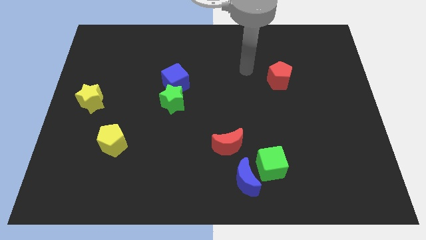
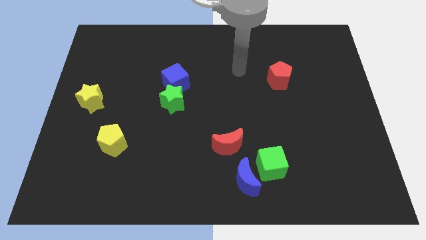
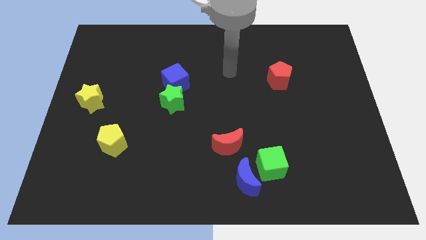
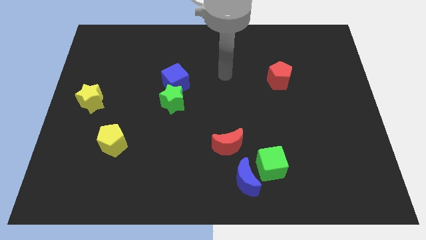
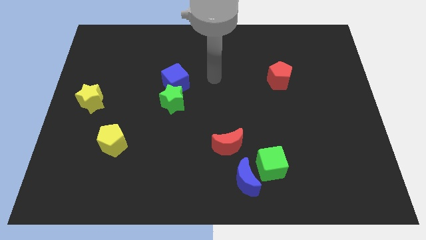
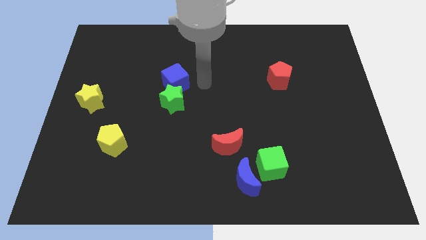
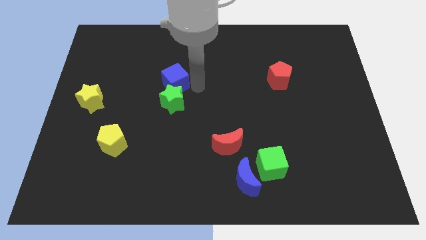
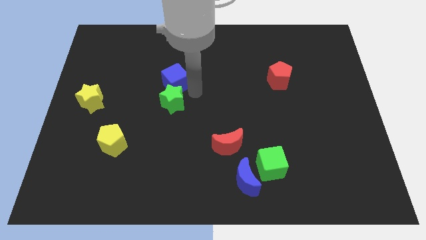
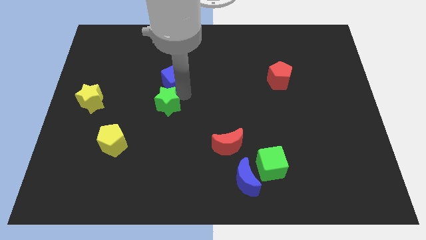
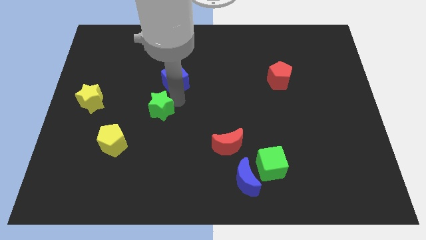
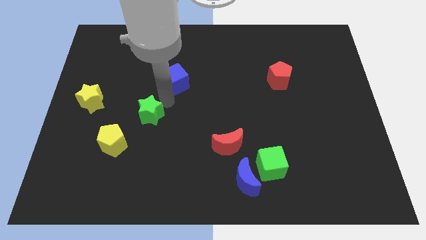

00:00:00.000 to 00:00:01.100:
pull the blue cube apart from the green star

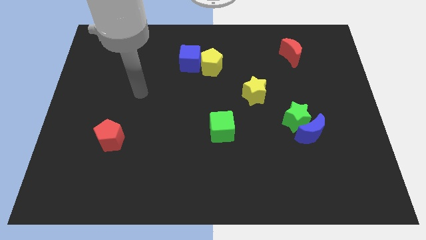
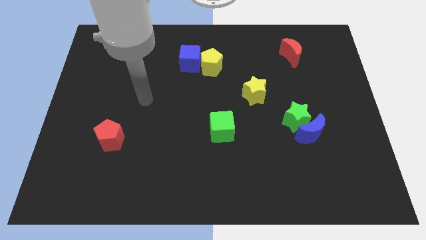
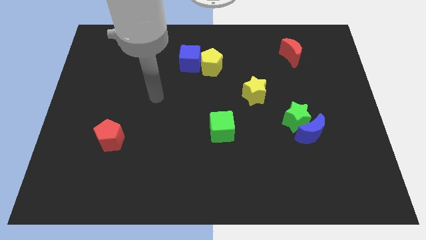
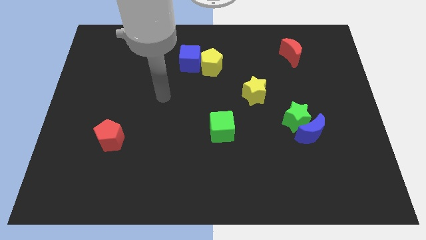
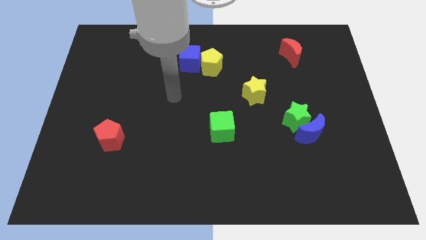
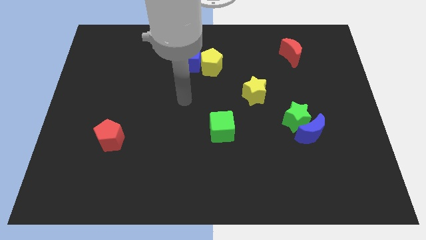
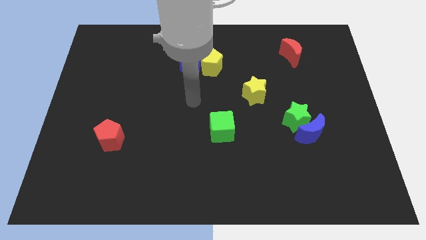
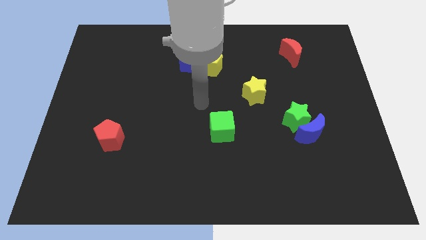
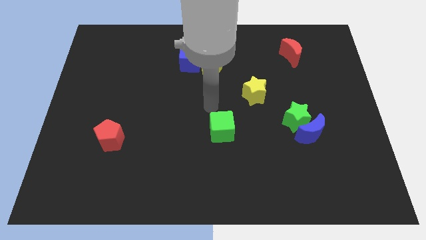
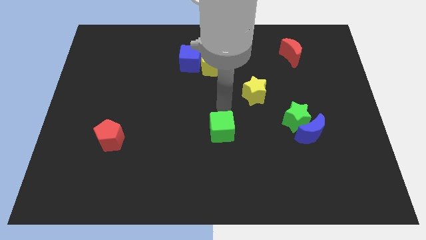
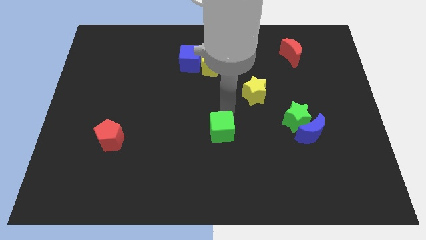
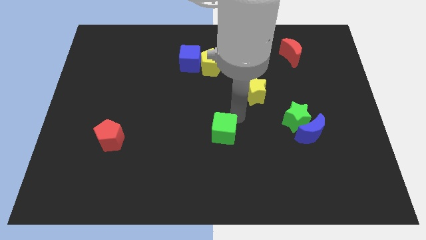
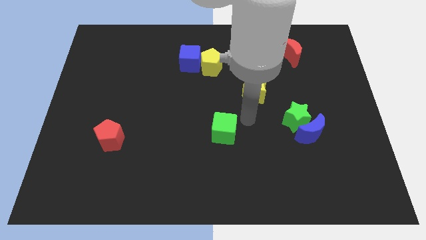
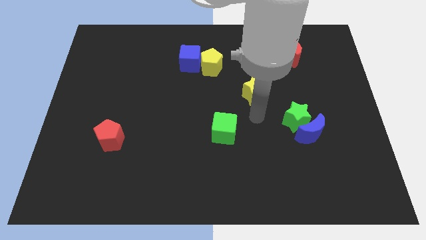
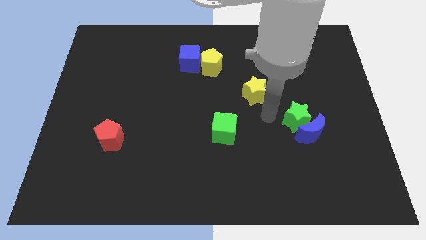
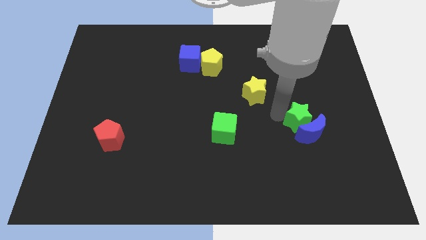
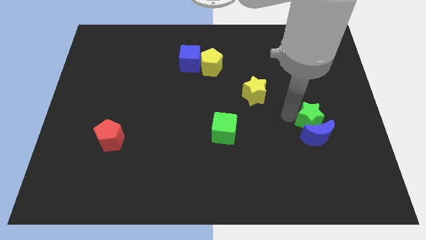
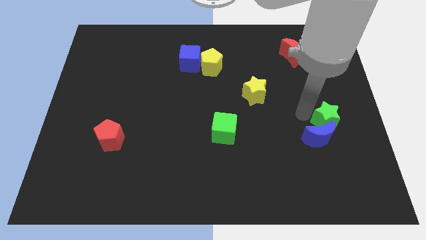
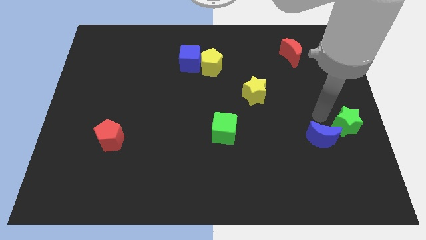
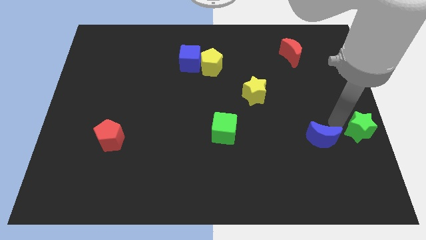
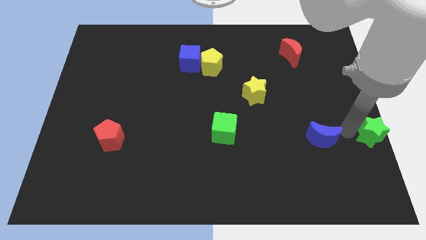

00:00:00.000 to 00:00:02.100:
pull the blue moon apart from the green star

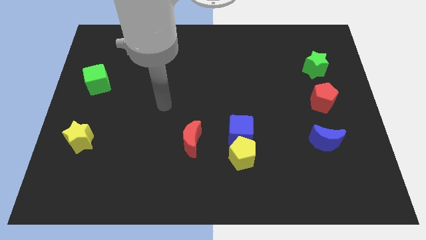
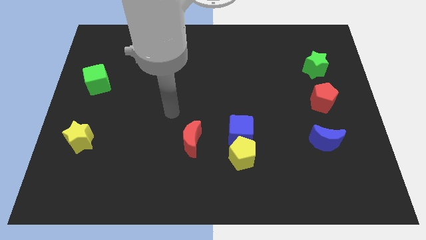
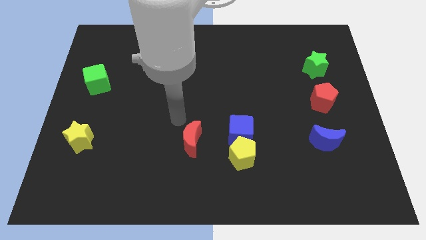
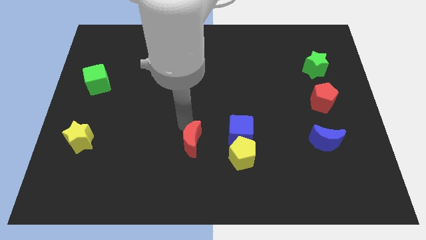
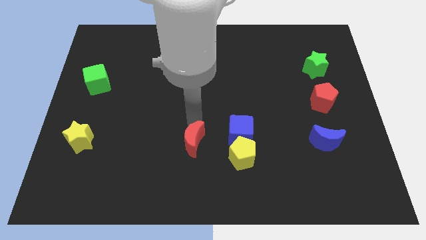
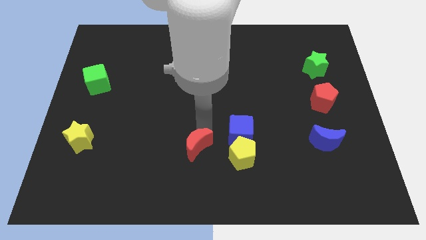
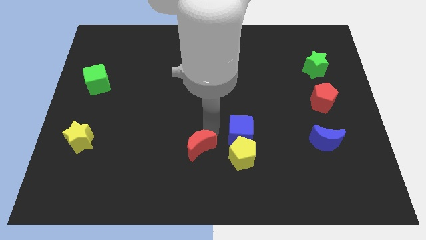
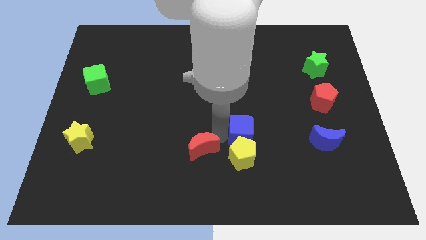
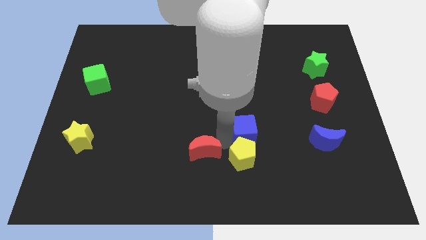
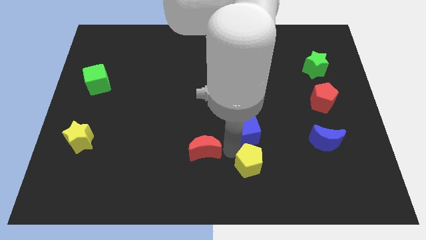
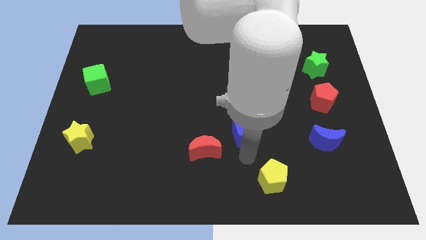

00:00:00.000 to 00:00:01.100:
separate the blue cube from the yellow pentagon

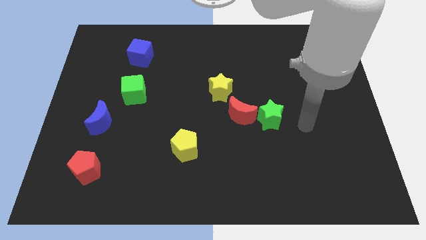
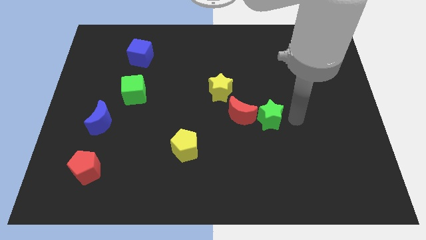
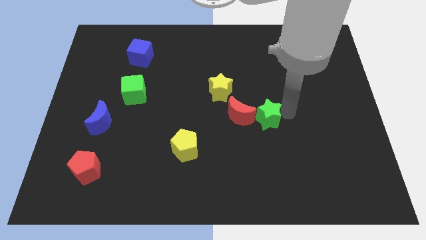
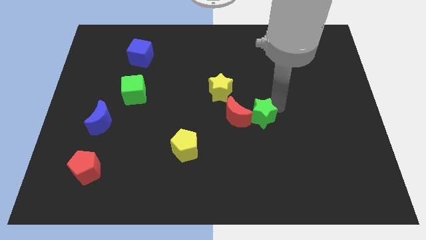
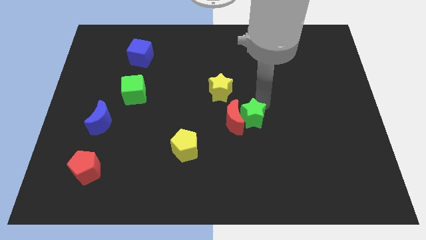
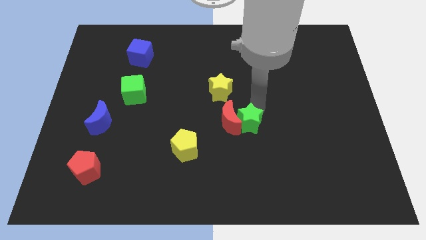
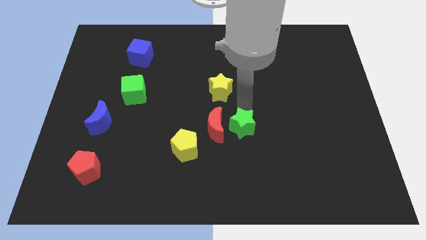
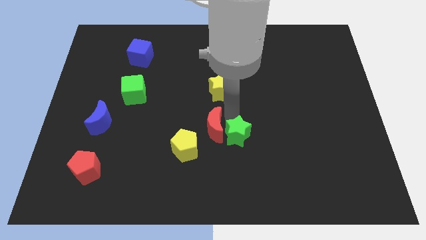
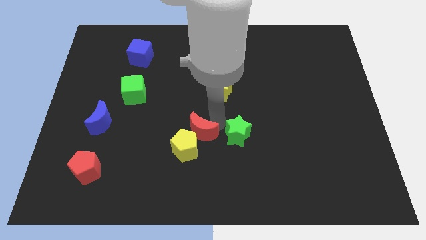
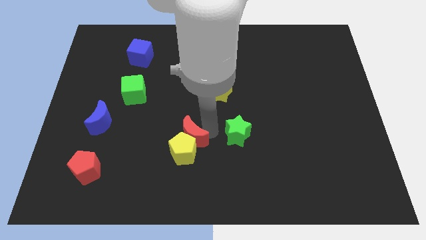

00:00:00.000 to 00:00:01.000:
pull the green star apart from the red moon

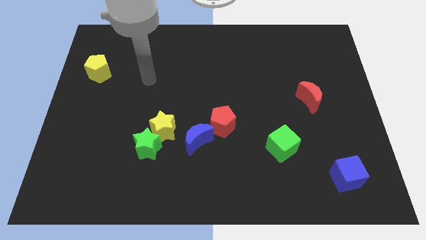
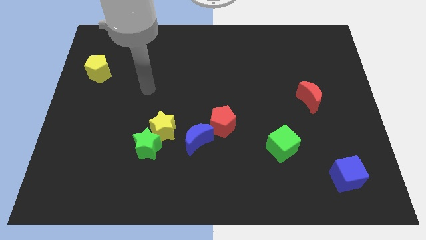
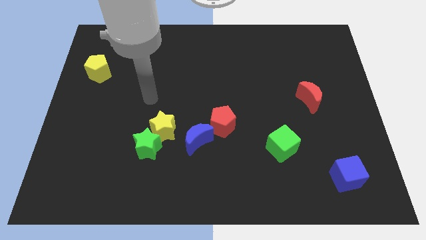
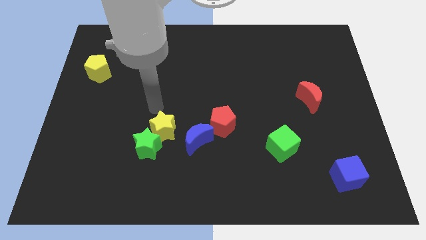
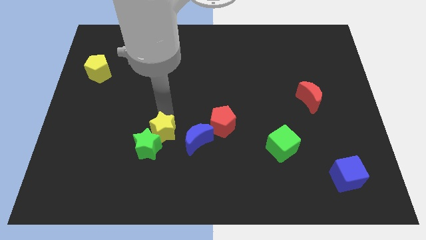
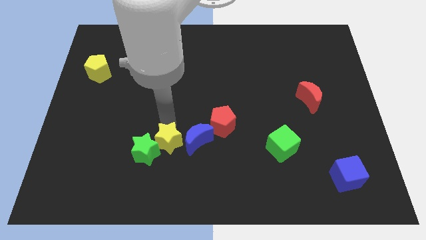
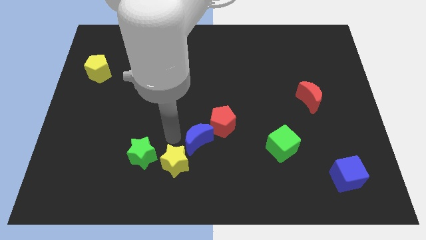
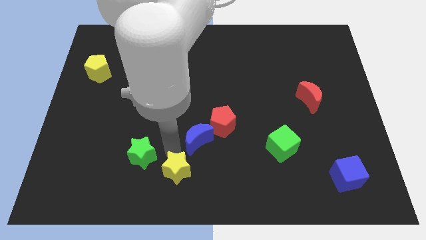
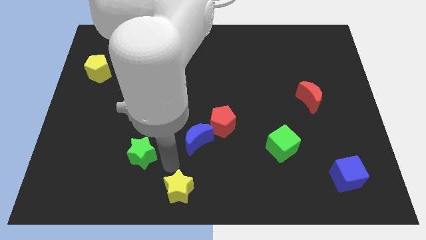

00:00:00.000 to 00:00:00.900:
separate the green star from the yellow star

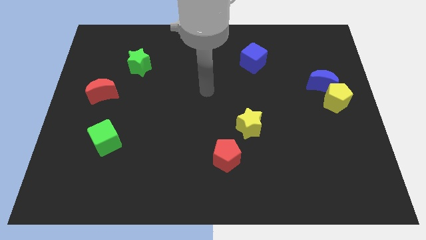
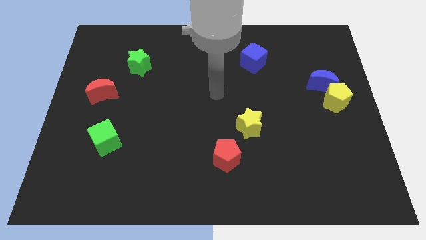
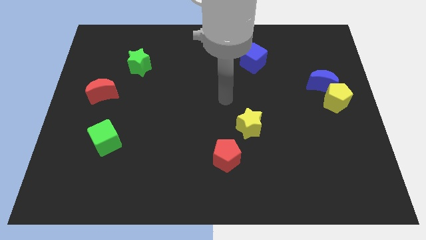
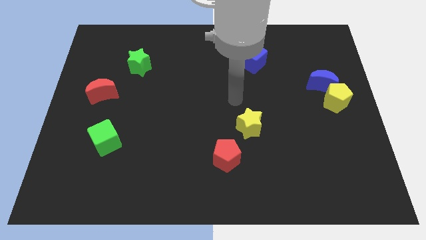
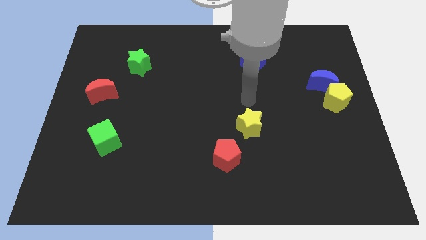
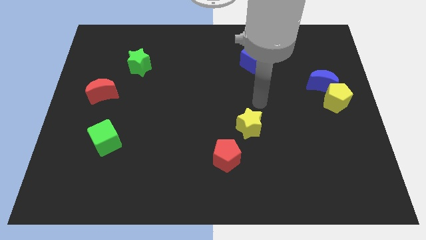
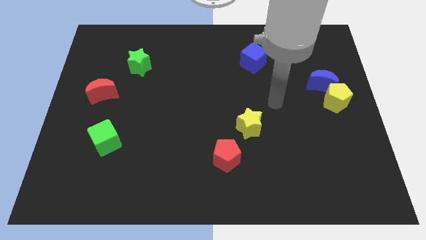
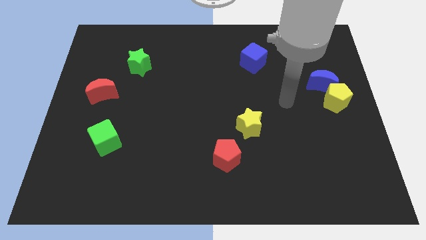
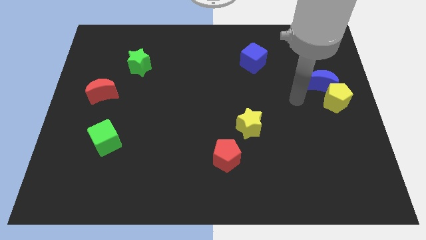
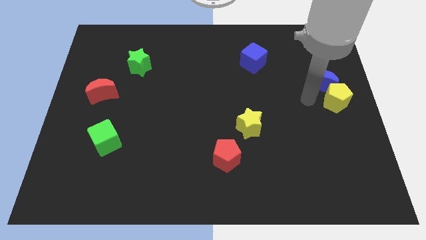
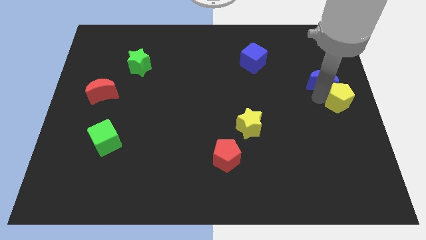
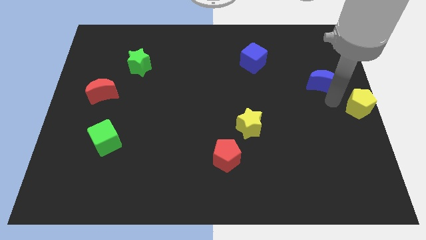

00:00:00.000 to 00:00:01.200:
separate the blue moon from the yellow pentagon

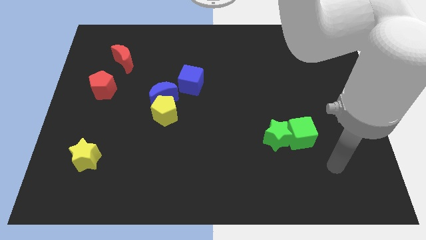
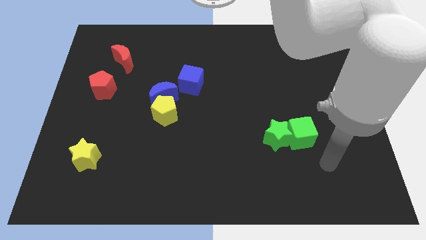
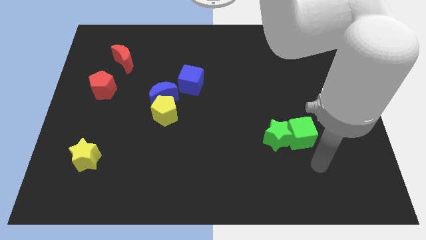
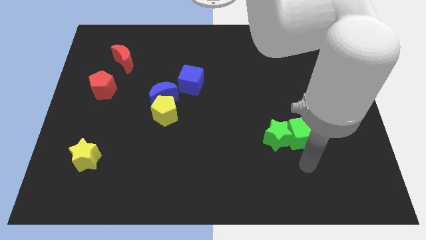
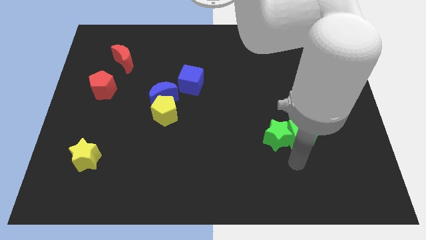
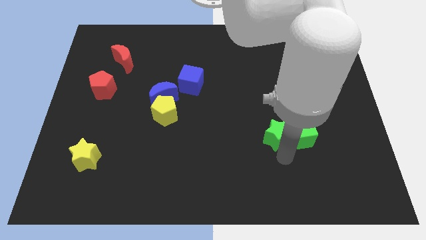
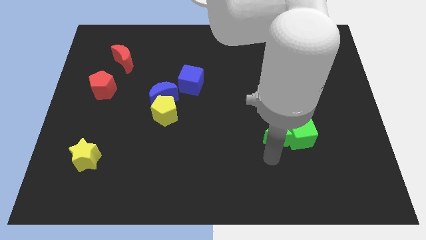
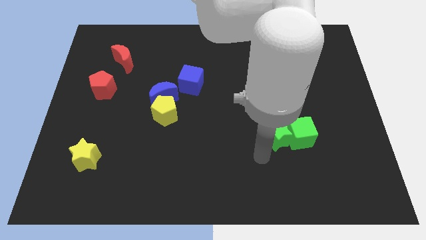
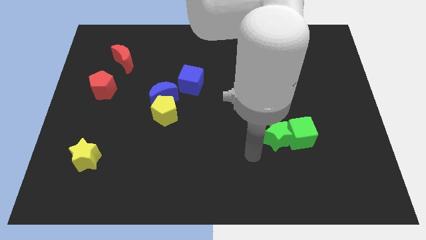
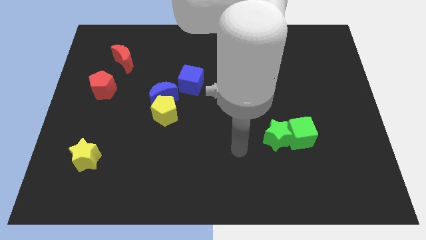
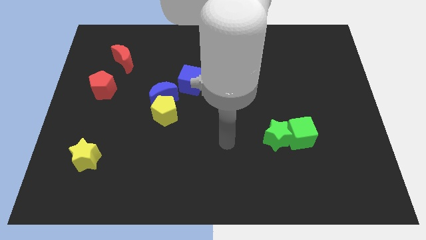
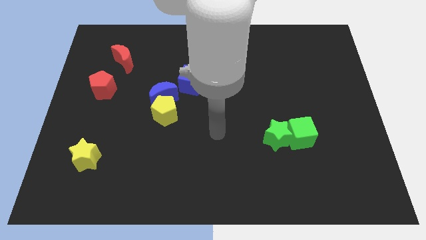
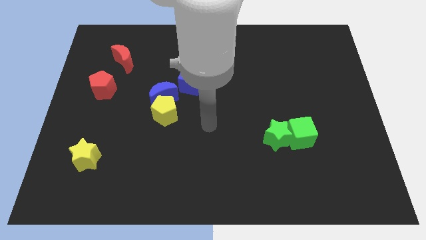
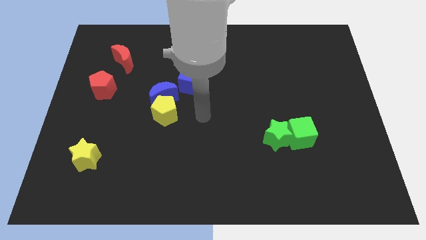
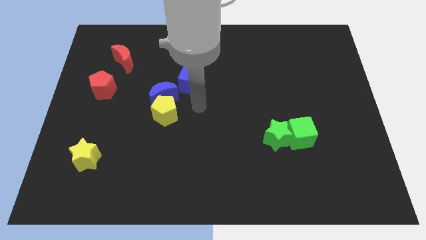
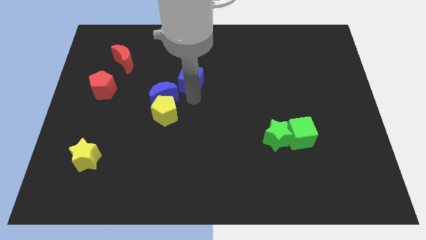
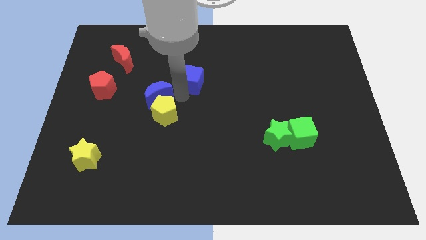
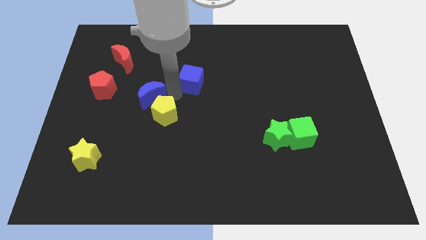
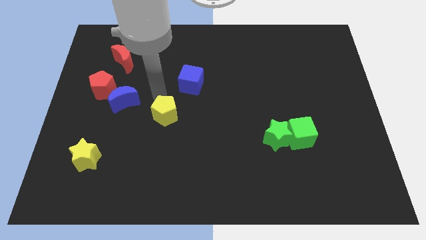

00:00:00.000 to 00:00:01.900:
move the yellow pentagon away from the blue moon
